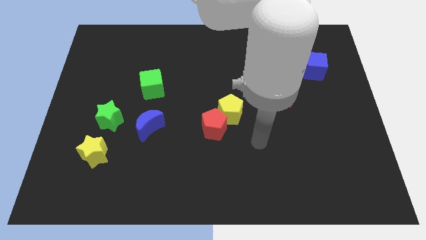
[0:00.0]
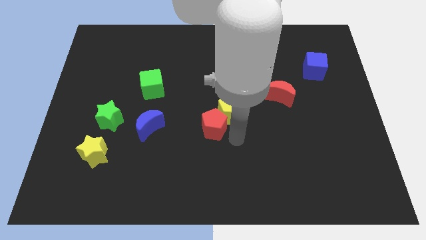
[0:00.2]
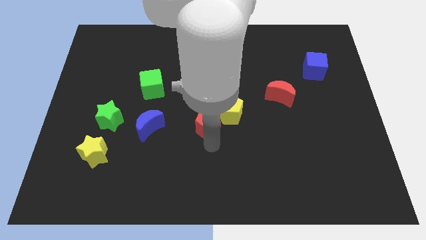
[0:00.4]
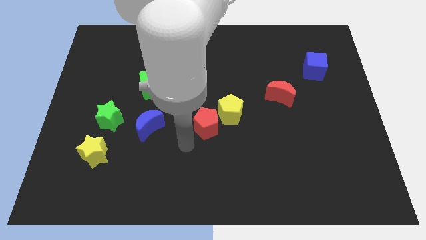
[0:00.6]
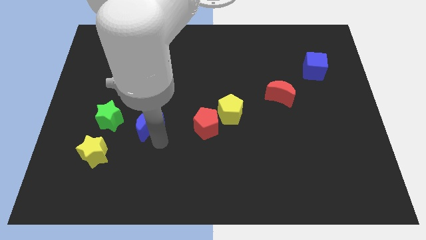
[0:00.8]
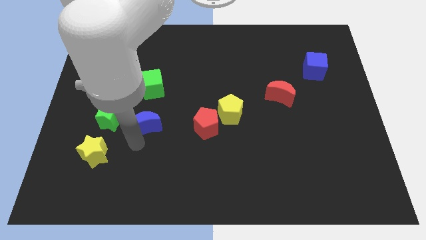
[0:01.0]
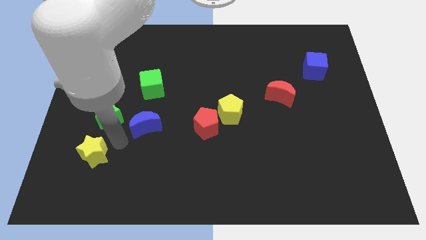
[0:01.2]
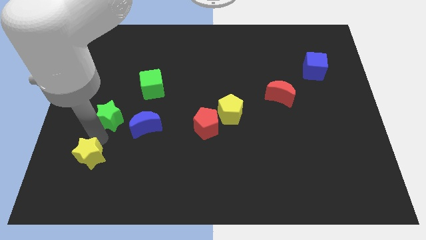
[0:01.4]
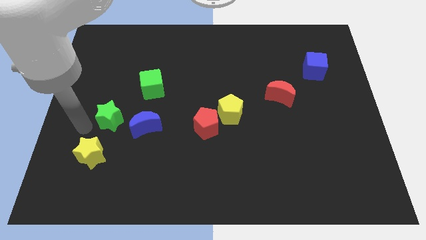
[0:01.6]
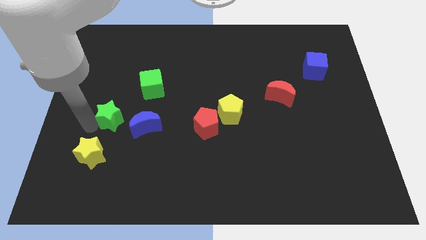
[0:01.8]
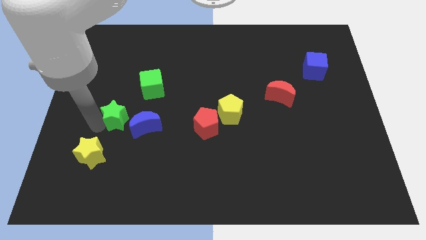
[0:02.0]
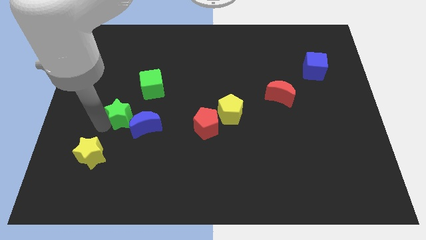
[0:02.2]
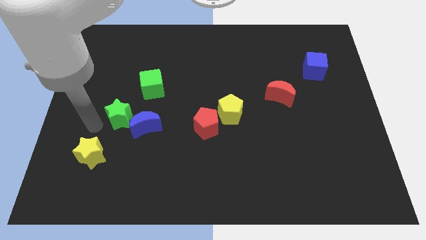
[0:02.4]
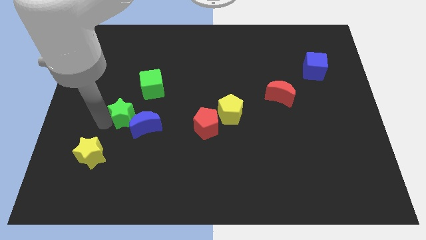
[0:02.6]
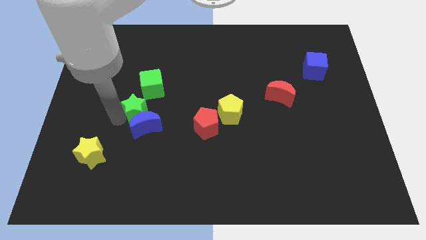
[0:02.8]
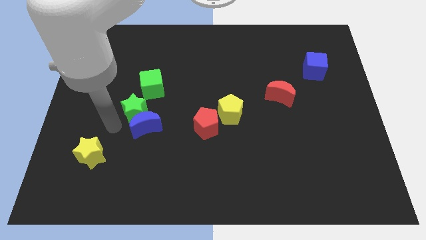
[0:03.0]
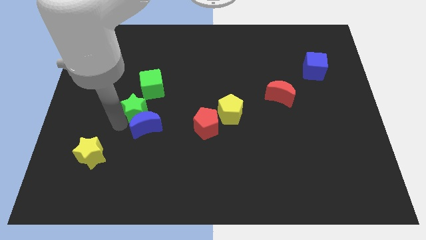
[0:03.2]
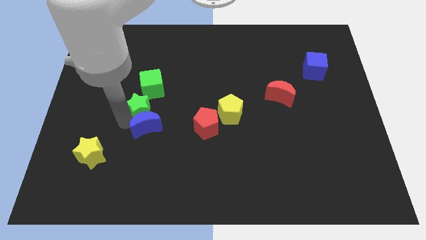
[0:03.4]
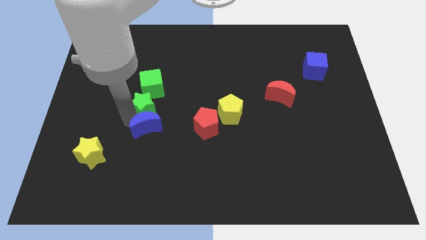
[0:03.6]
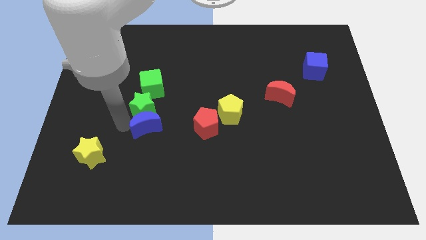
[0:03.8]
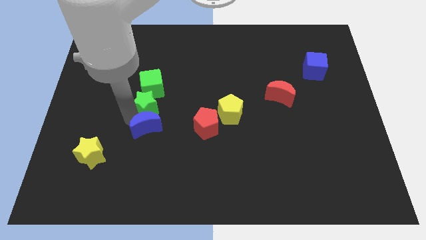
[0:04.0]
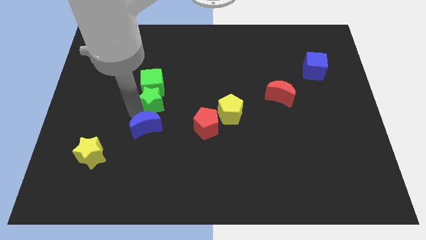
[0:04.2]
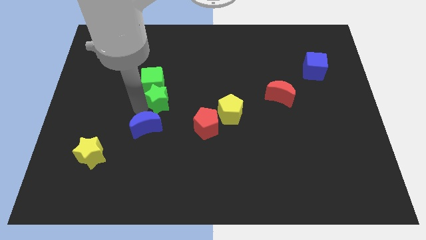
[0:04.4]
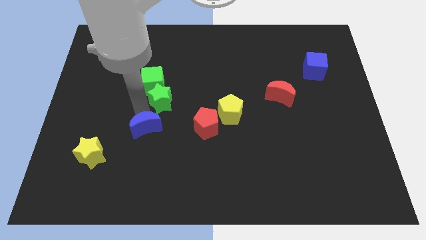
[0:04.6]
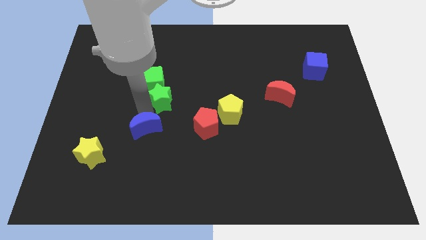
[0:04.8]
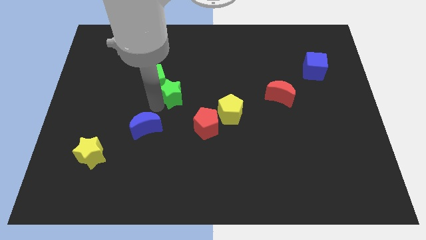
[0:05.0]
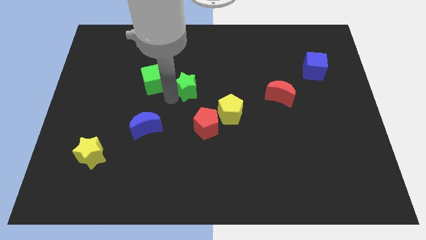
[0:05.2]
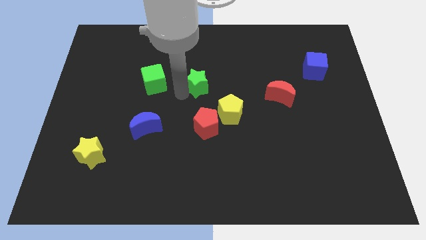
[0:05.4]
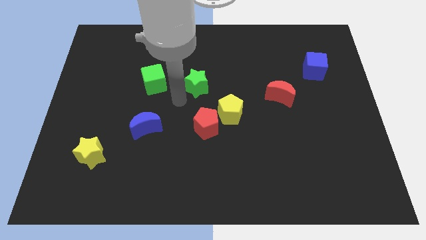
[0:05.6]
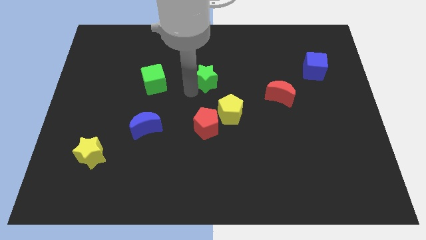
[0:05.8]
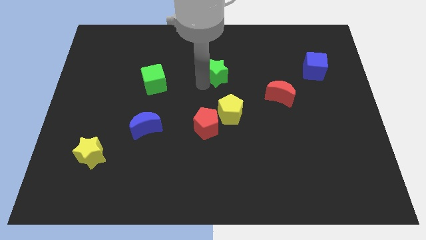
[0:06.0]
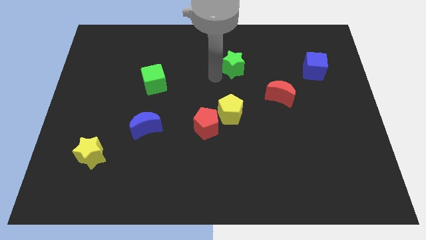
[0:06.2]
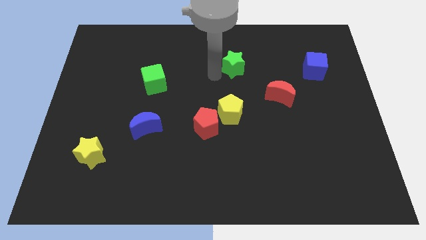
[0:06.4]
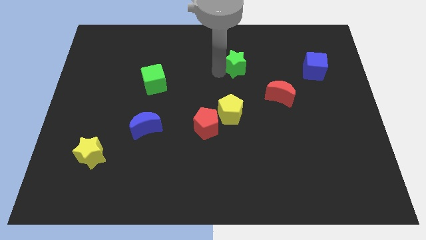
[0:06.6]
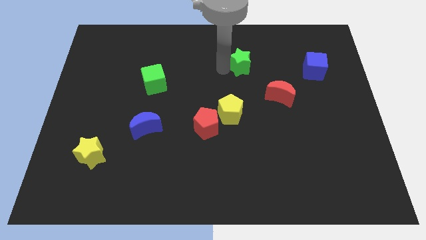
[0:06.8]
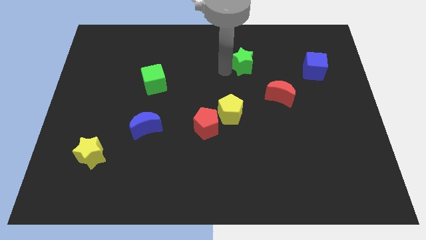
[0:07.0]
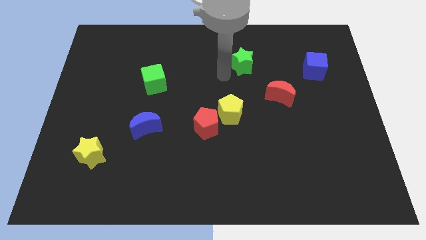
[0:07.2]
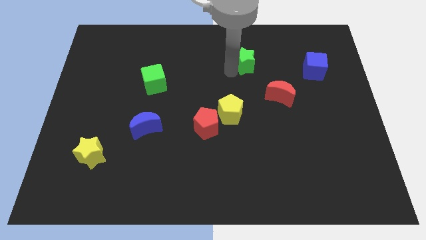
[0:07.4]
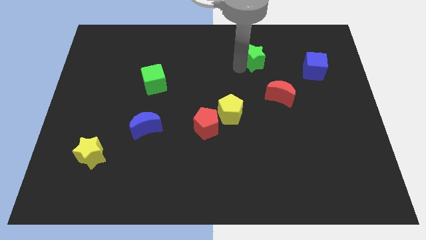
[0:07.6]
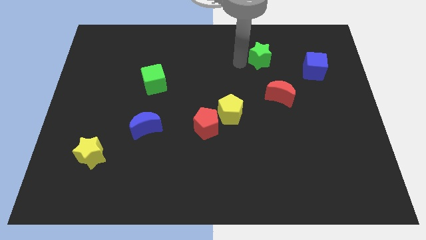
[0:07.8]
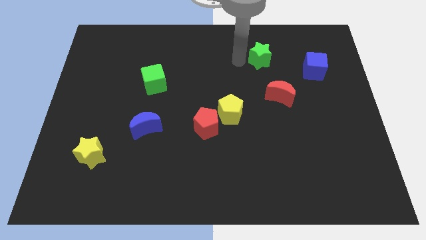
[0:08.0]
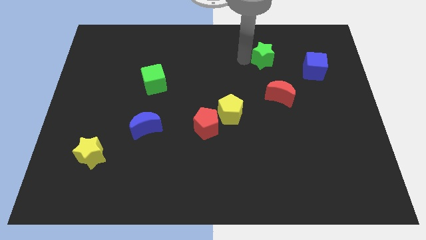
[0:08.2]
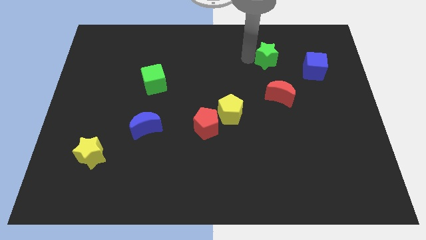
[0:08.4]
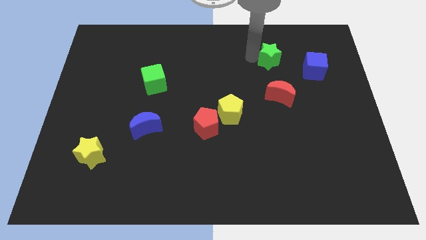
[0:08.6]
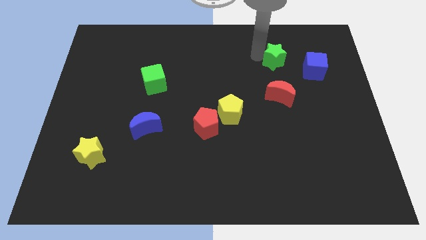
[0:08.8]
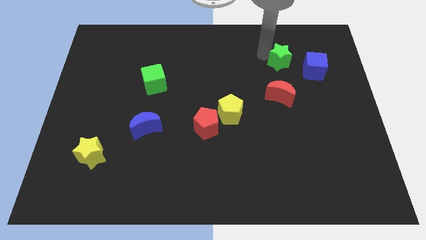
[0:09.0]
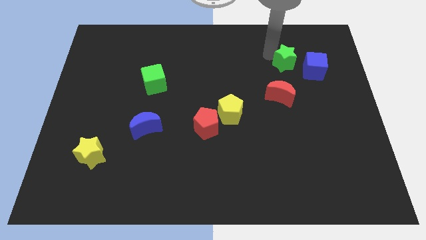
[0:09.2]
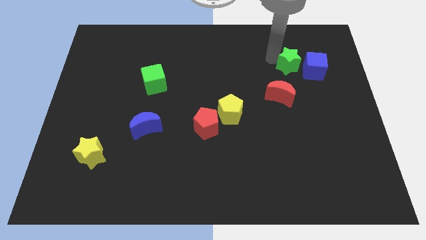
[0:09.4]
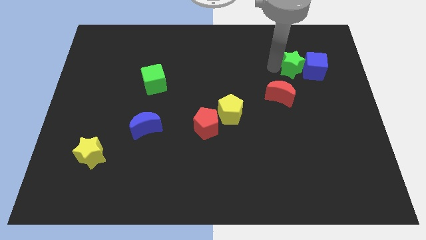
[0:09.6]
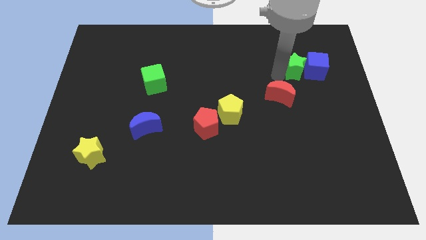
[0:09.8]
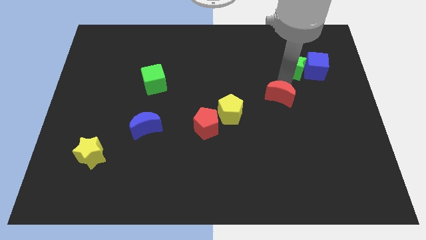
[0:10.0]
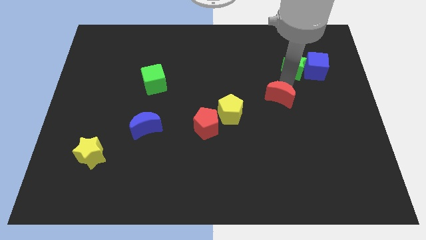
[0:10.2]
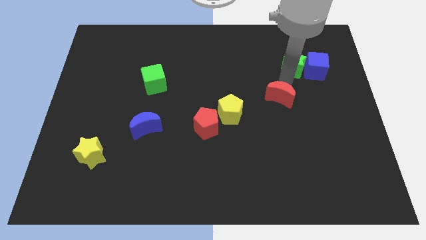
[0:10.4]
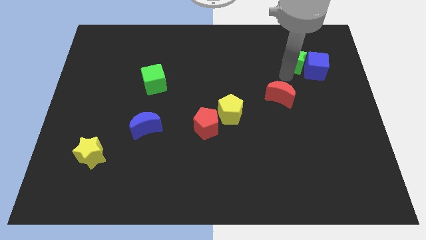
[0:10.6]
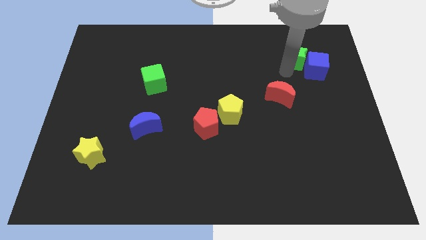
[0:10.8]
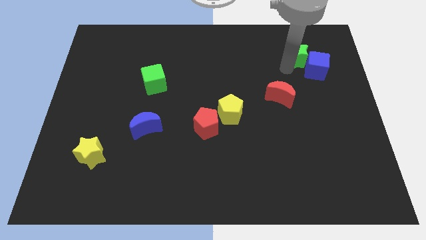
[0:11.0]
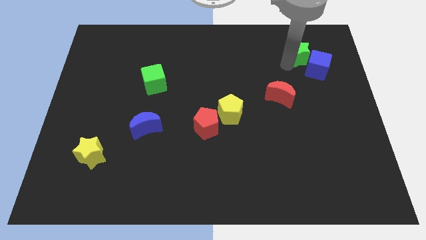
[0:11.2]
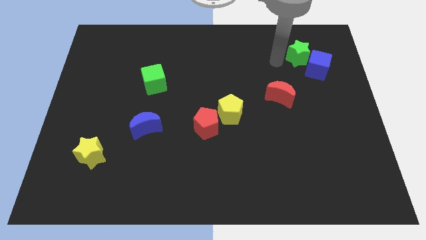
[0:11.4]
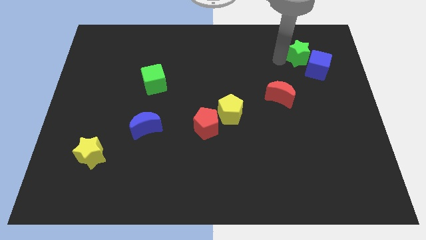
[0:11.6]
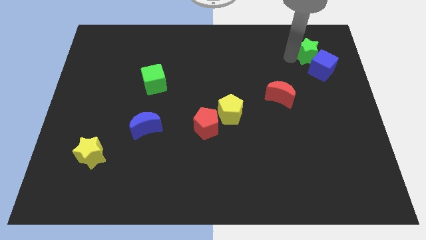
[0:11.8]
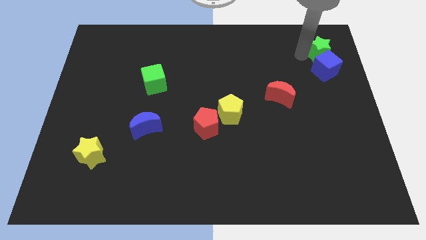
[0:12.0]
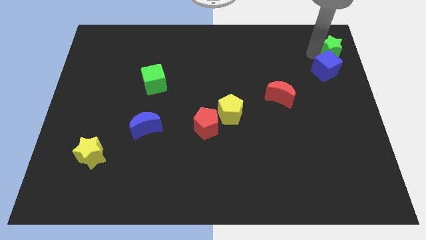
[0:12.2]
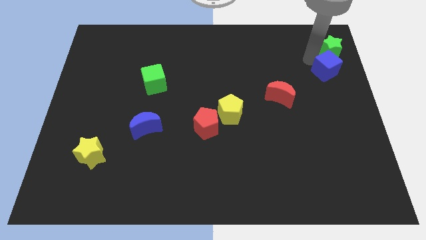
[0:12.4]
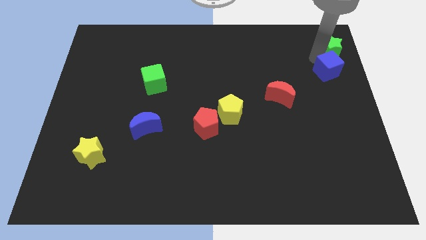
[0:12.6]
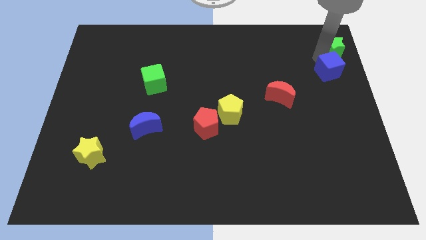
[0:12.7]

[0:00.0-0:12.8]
put the green star to the top right
